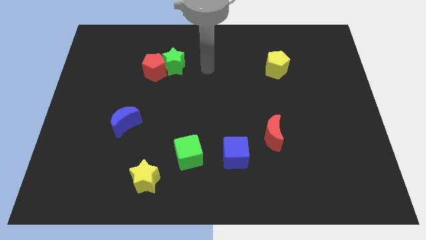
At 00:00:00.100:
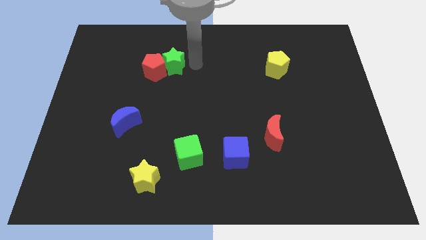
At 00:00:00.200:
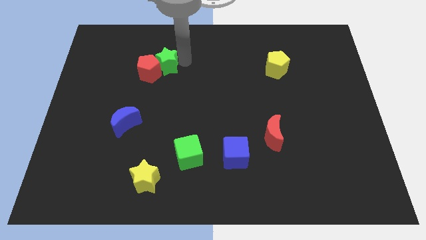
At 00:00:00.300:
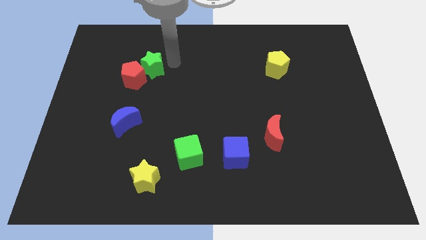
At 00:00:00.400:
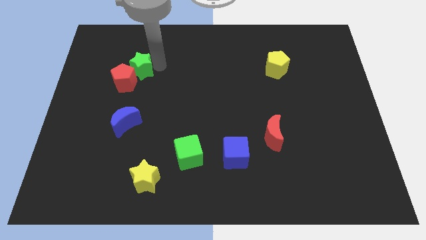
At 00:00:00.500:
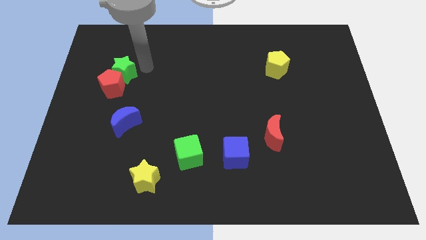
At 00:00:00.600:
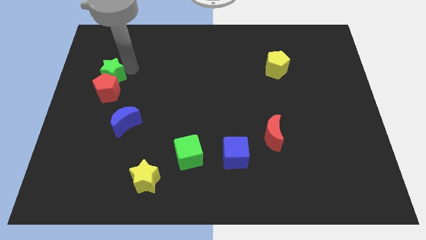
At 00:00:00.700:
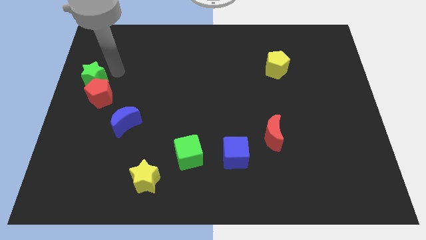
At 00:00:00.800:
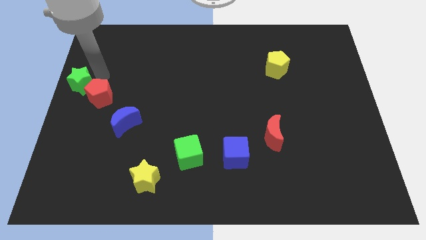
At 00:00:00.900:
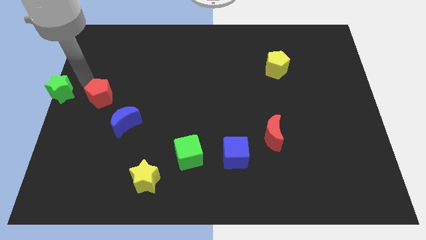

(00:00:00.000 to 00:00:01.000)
move the red pentagon away from the green star

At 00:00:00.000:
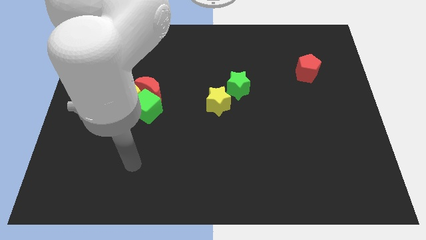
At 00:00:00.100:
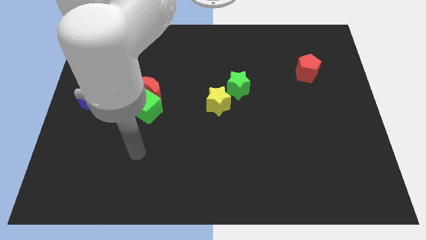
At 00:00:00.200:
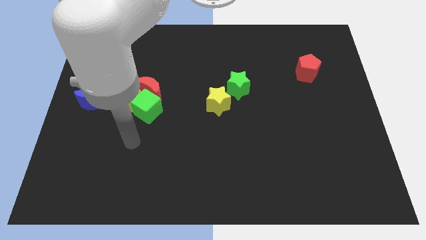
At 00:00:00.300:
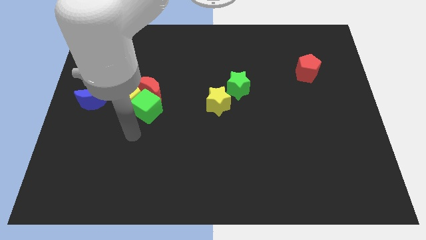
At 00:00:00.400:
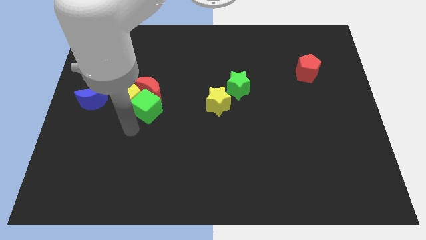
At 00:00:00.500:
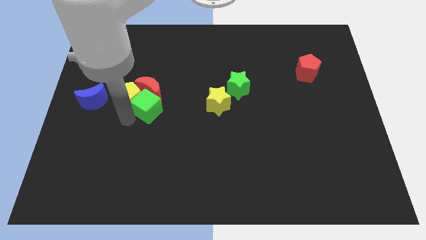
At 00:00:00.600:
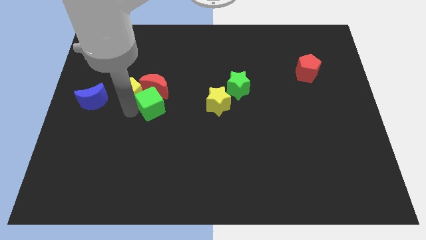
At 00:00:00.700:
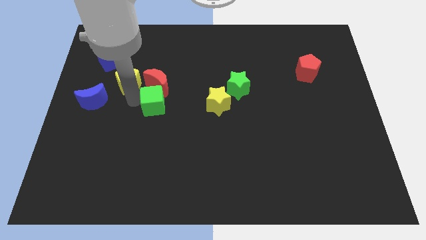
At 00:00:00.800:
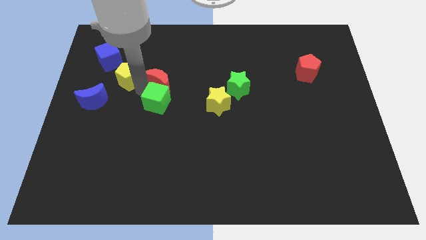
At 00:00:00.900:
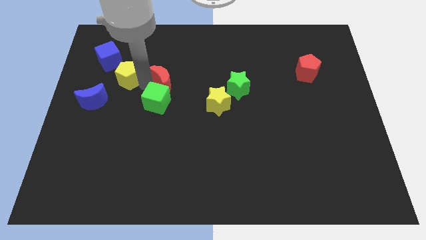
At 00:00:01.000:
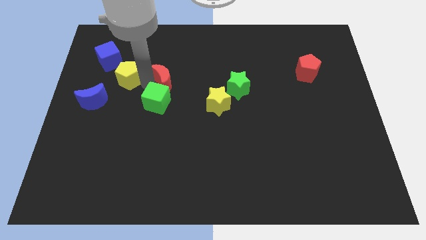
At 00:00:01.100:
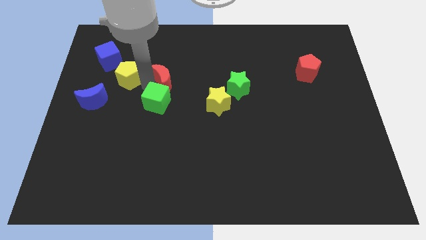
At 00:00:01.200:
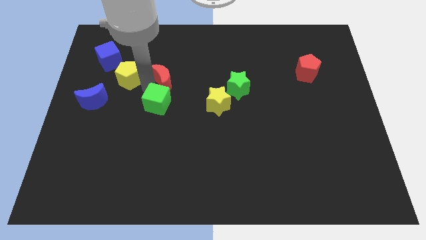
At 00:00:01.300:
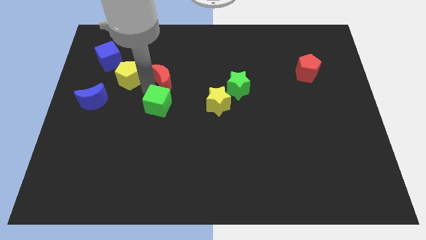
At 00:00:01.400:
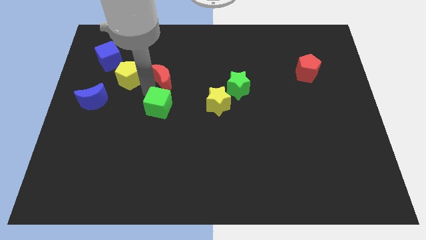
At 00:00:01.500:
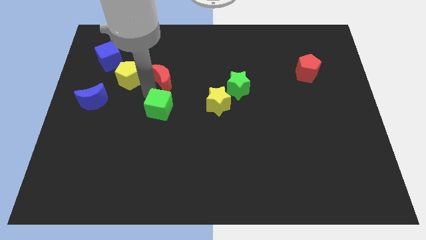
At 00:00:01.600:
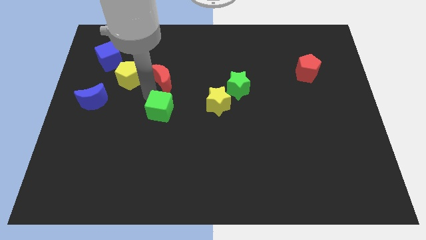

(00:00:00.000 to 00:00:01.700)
move the green cube away from the yellow pentagon and red moon

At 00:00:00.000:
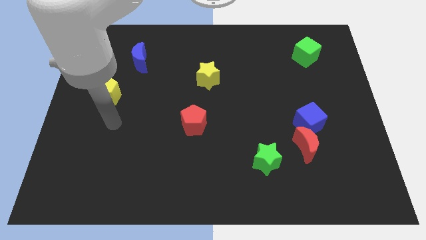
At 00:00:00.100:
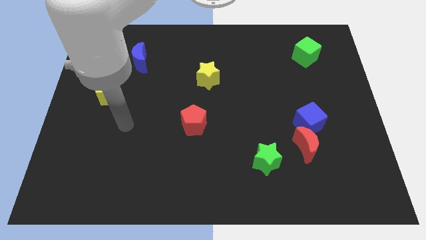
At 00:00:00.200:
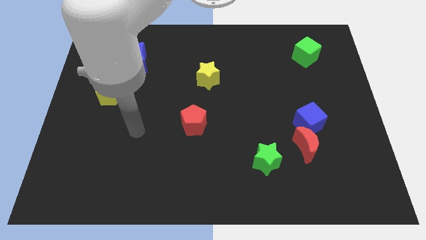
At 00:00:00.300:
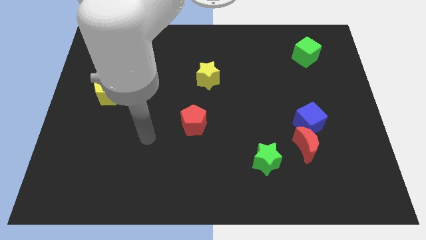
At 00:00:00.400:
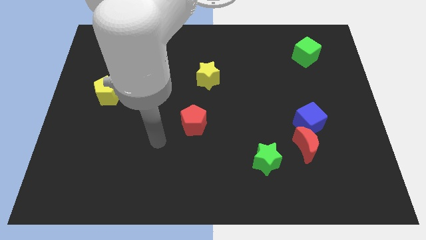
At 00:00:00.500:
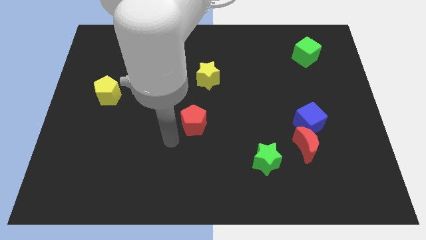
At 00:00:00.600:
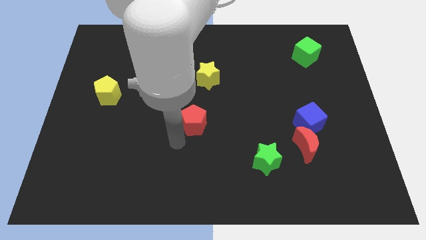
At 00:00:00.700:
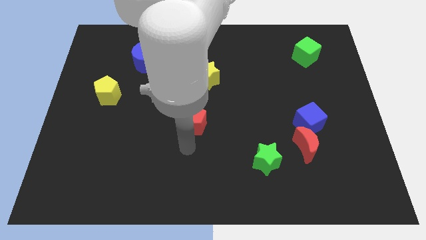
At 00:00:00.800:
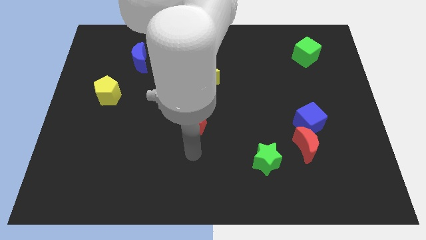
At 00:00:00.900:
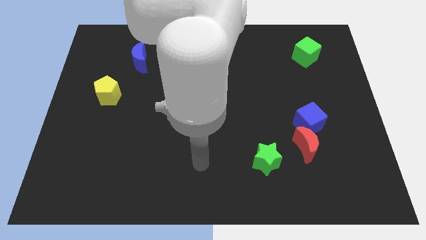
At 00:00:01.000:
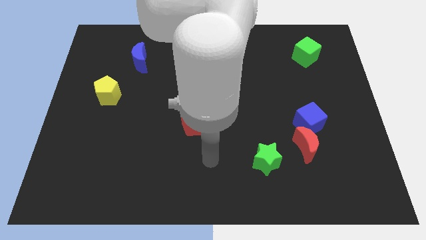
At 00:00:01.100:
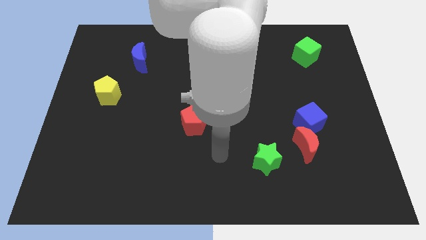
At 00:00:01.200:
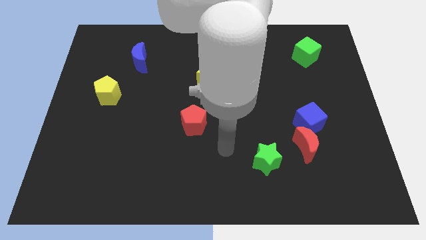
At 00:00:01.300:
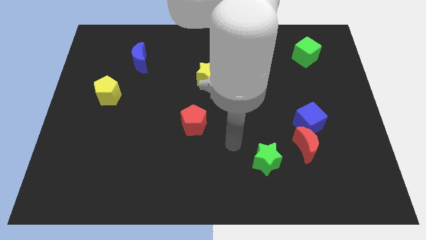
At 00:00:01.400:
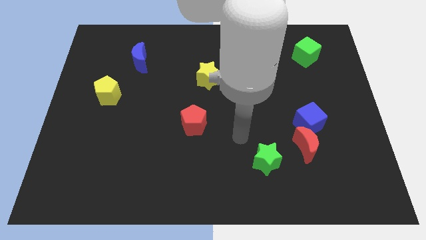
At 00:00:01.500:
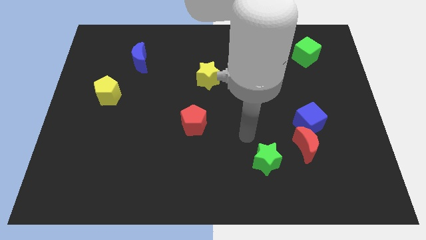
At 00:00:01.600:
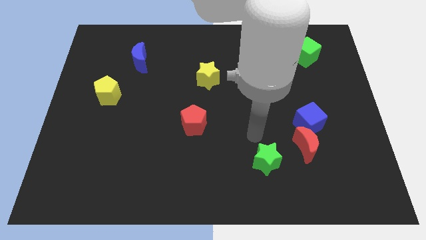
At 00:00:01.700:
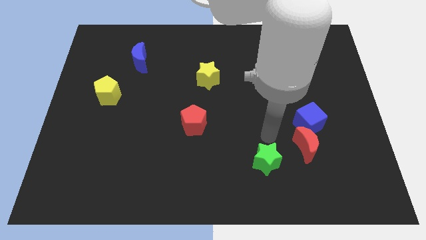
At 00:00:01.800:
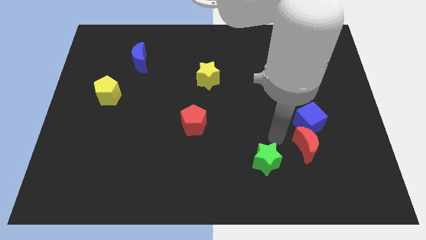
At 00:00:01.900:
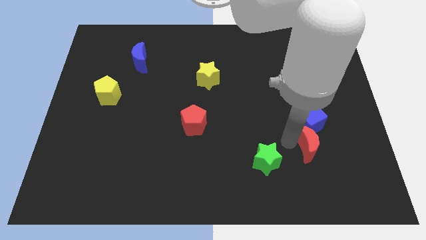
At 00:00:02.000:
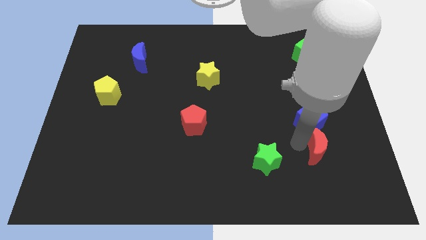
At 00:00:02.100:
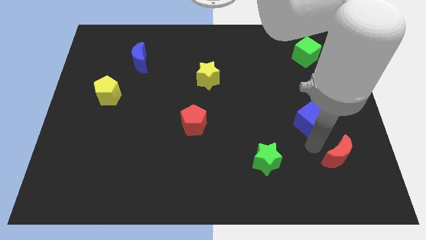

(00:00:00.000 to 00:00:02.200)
pull the blue cube apart from the red moon

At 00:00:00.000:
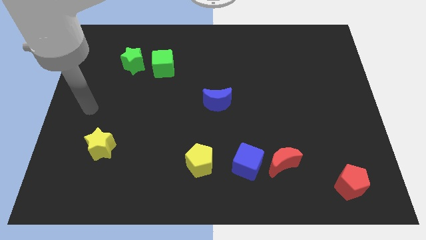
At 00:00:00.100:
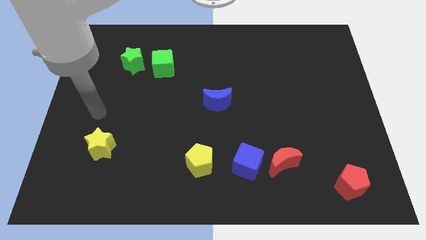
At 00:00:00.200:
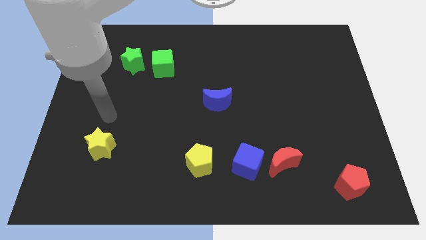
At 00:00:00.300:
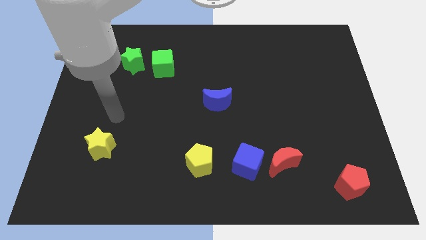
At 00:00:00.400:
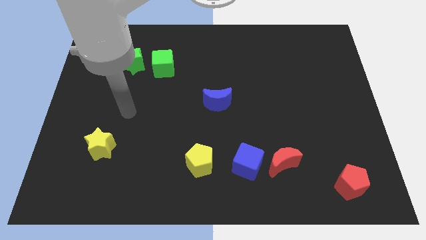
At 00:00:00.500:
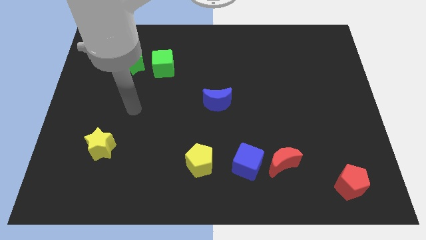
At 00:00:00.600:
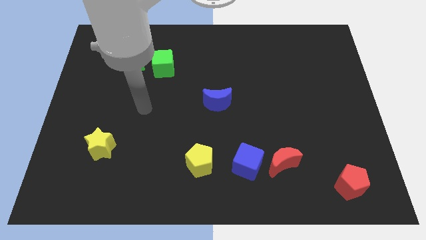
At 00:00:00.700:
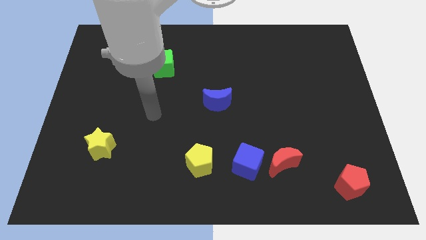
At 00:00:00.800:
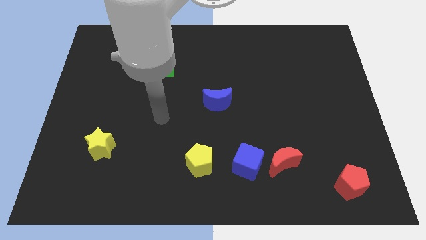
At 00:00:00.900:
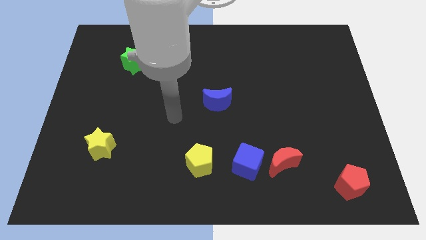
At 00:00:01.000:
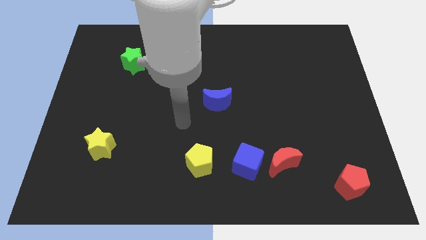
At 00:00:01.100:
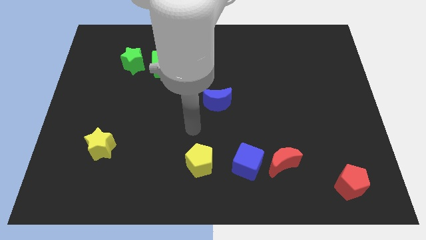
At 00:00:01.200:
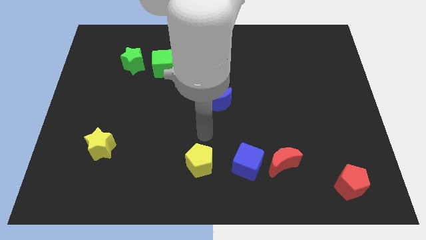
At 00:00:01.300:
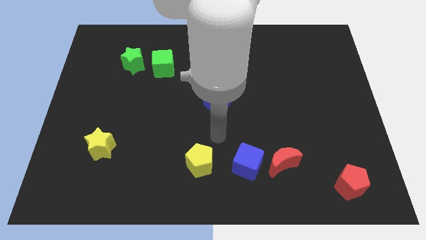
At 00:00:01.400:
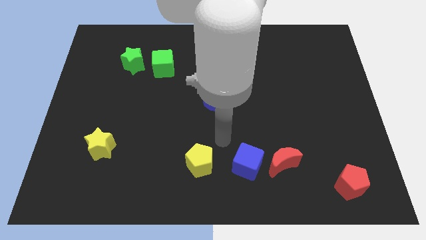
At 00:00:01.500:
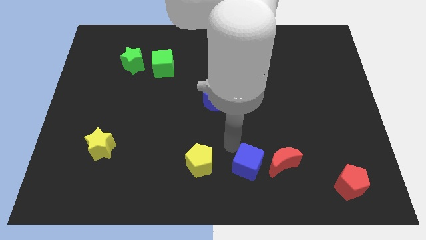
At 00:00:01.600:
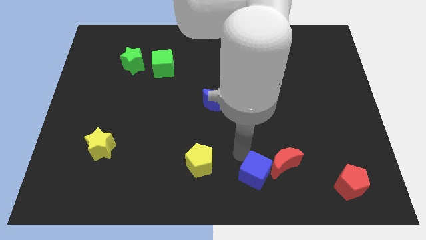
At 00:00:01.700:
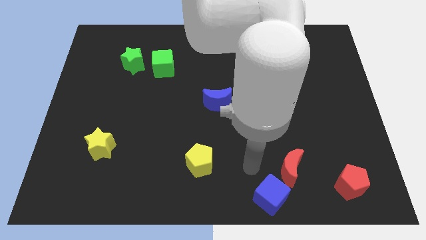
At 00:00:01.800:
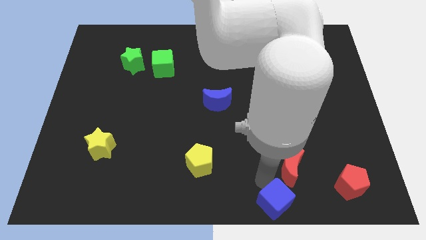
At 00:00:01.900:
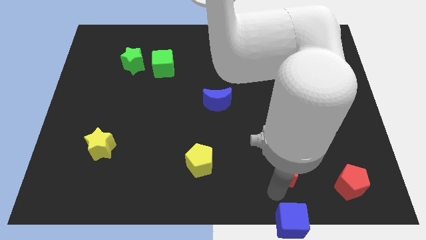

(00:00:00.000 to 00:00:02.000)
move the red moon away from the blue cube

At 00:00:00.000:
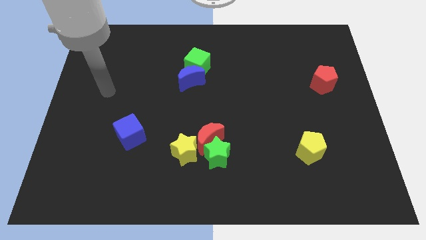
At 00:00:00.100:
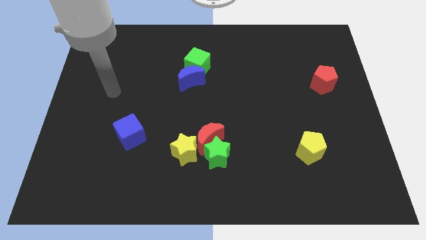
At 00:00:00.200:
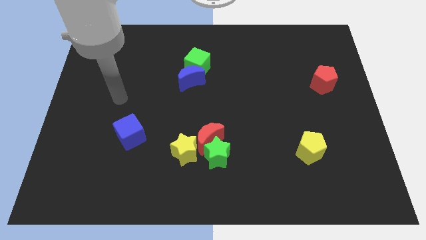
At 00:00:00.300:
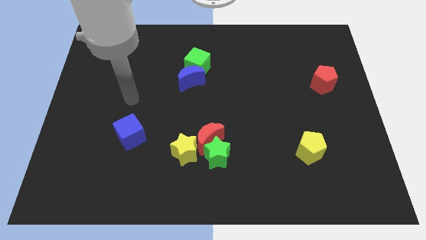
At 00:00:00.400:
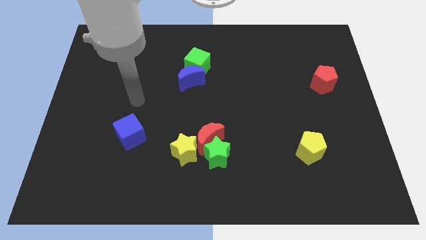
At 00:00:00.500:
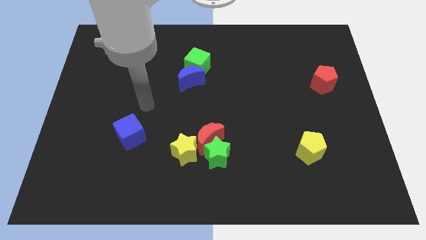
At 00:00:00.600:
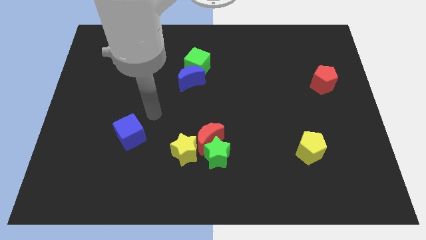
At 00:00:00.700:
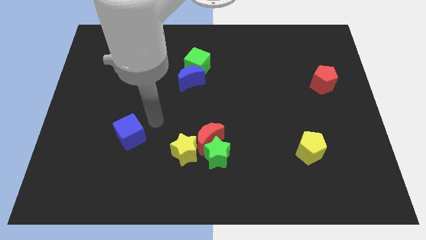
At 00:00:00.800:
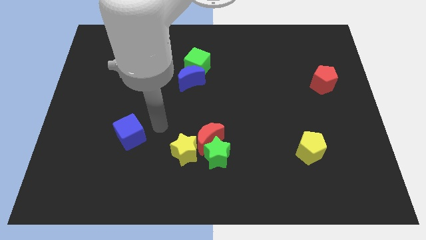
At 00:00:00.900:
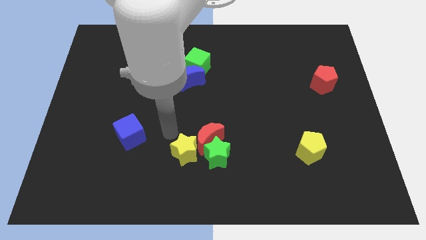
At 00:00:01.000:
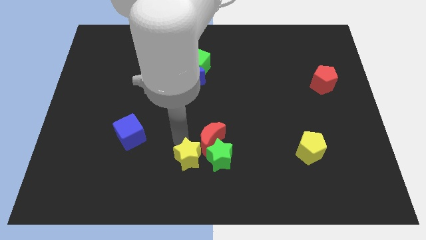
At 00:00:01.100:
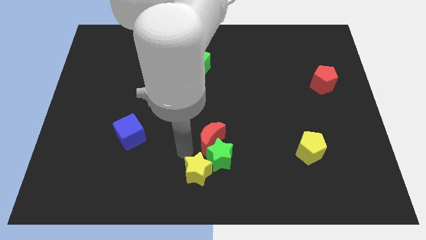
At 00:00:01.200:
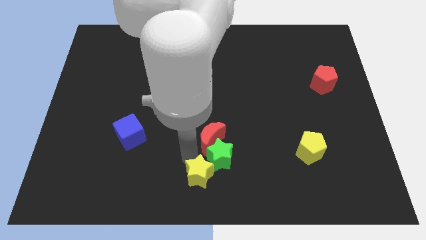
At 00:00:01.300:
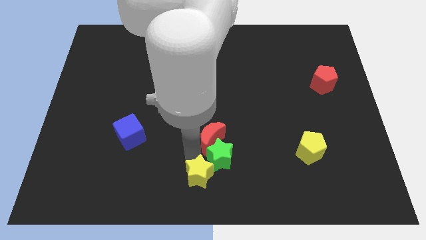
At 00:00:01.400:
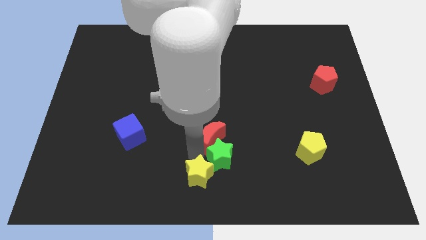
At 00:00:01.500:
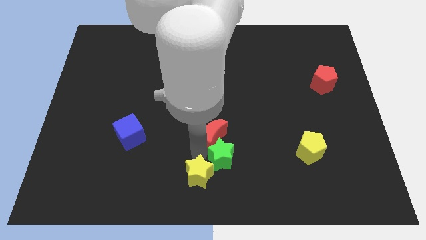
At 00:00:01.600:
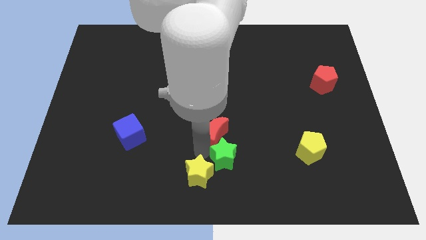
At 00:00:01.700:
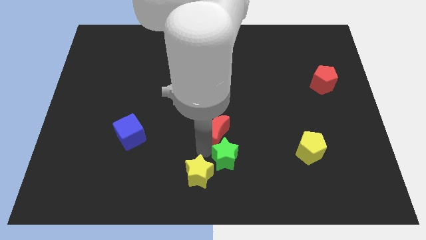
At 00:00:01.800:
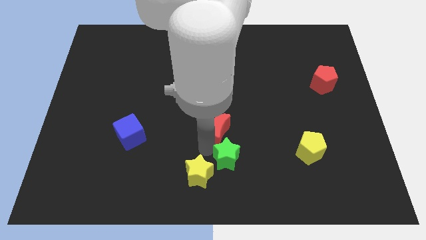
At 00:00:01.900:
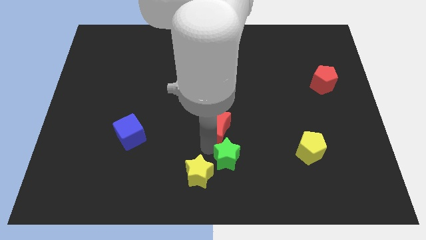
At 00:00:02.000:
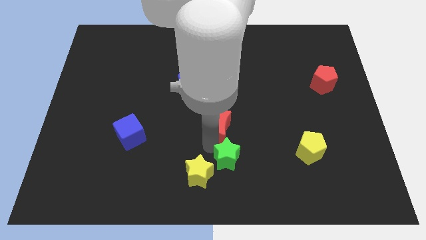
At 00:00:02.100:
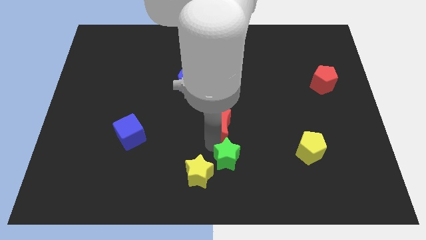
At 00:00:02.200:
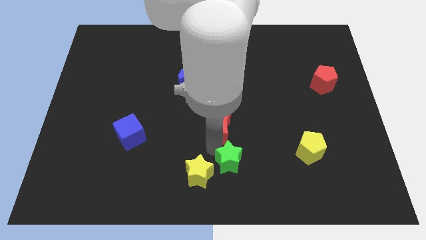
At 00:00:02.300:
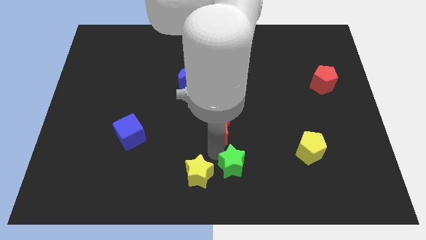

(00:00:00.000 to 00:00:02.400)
separate the red moon from the green star and yellow star
